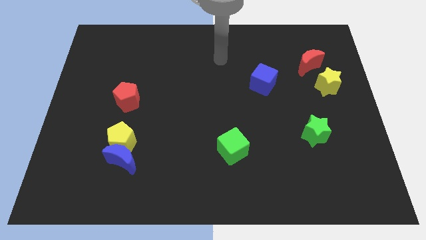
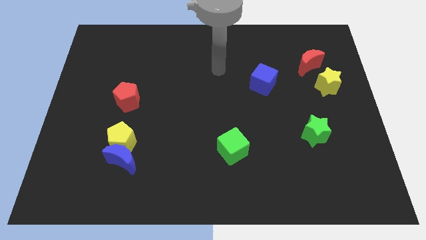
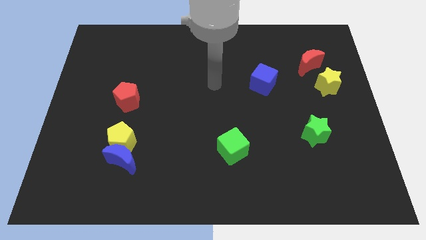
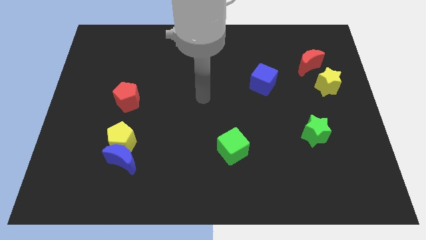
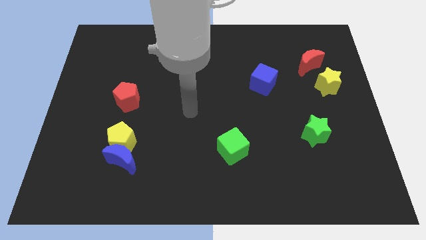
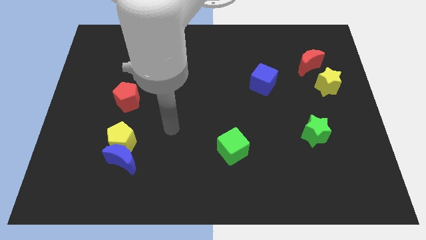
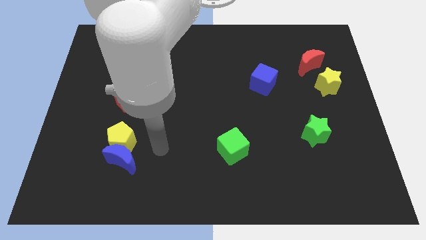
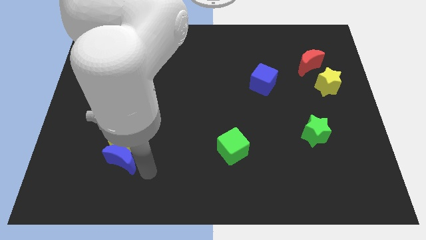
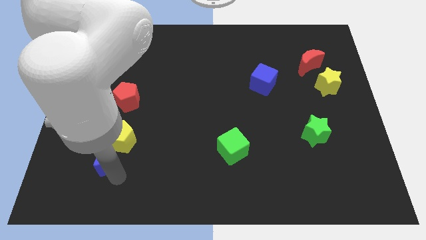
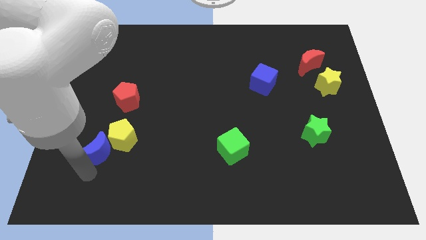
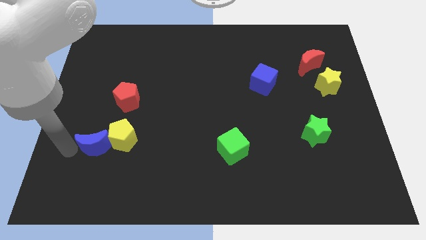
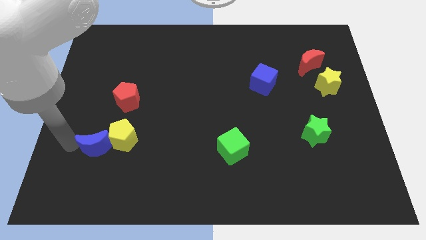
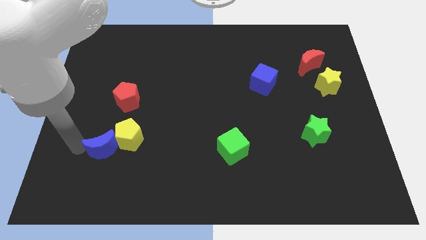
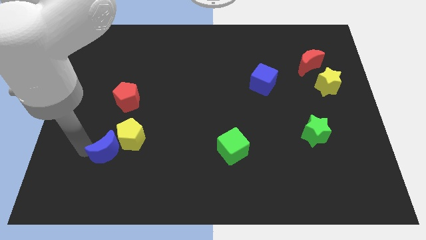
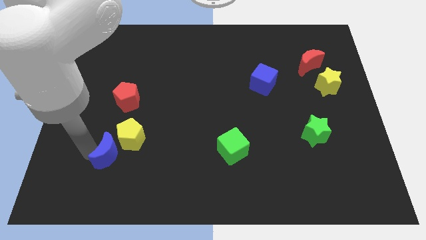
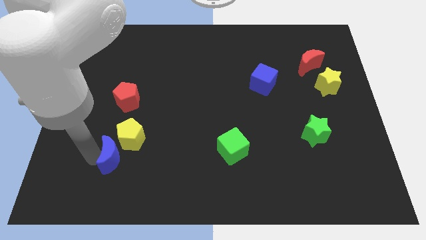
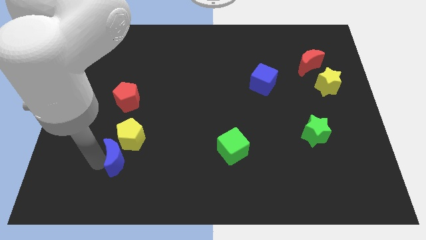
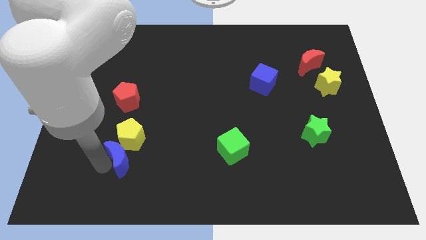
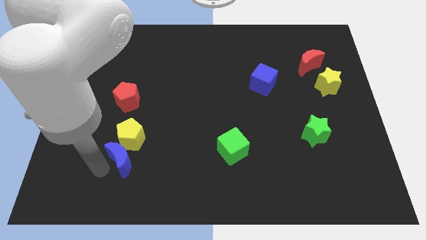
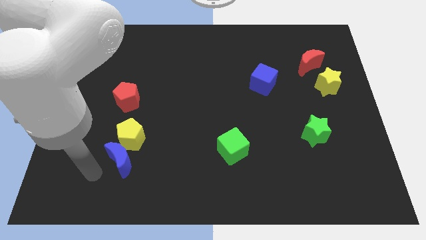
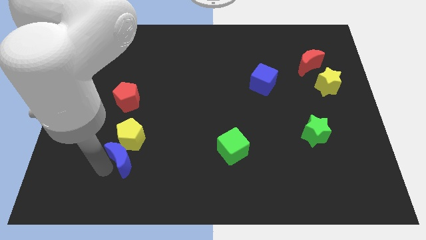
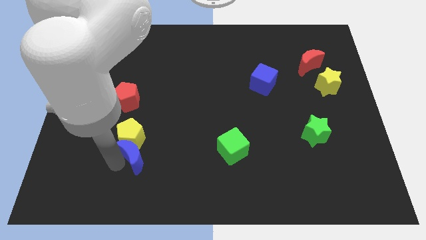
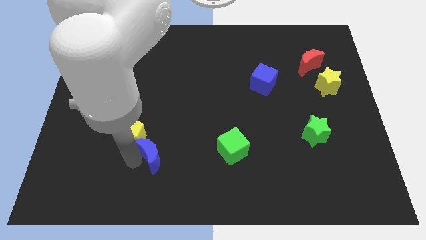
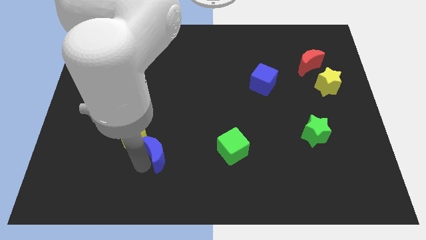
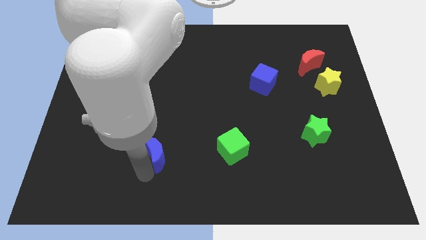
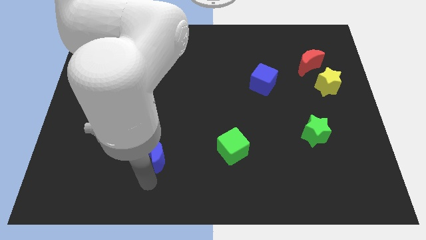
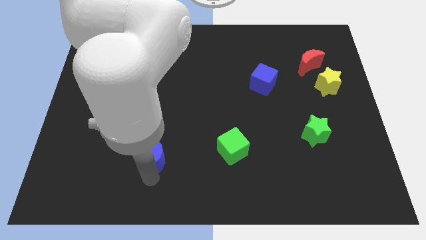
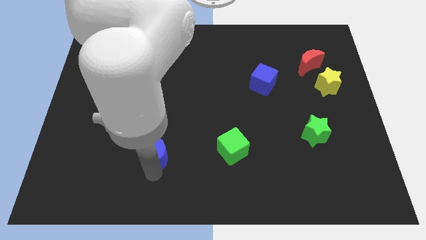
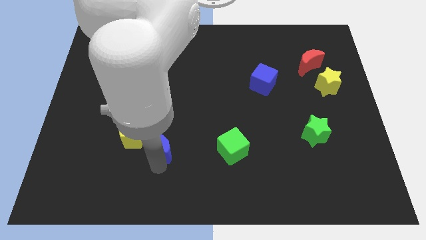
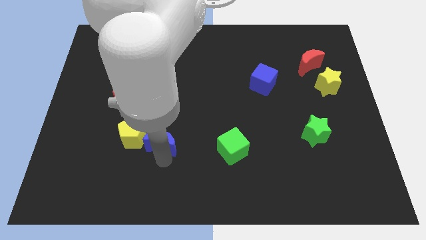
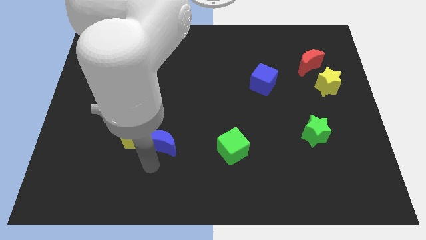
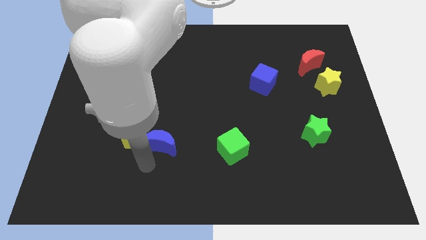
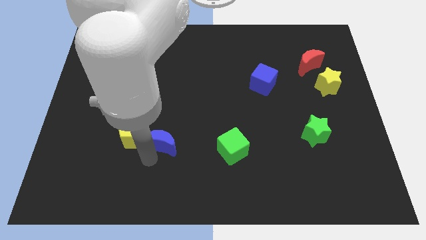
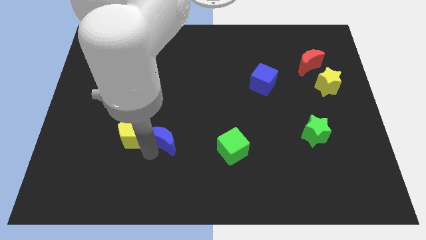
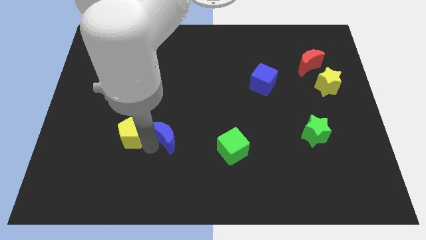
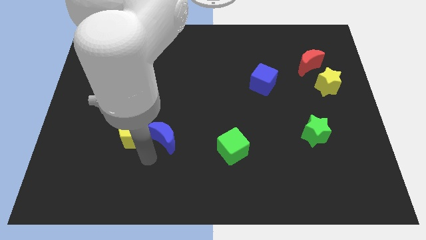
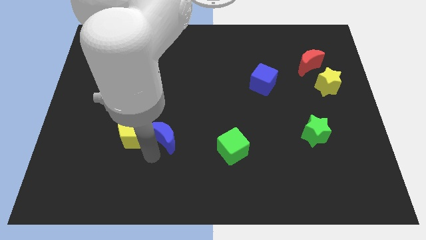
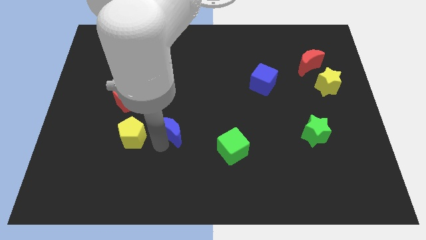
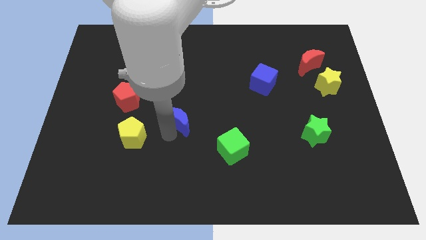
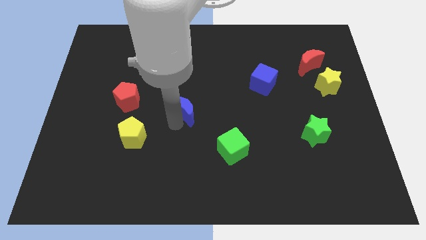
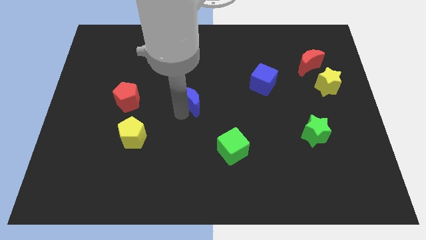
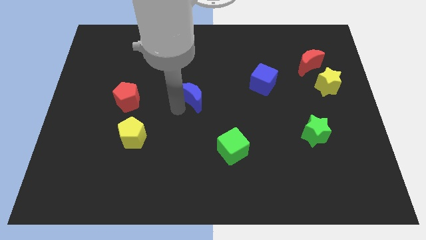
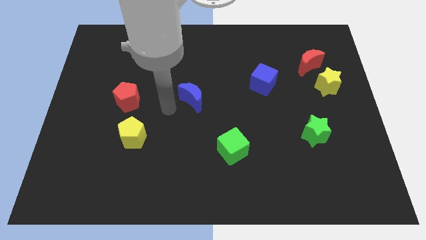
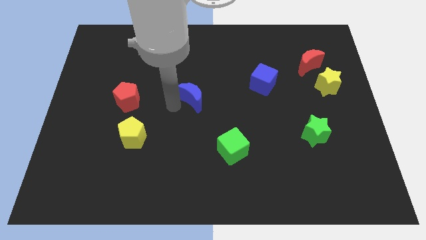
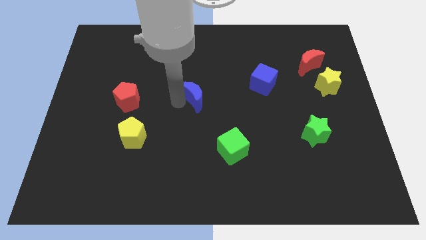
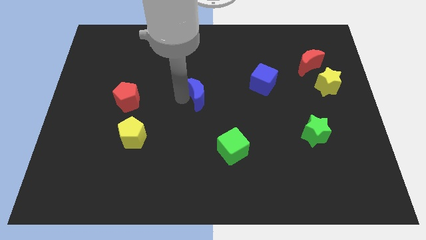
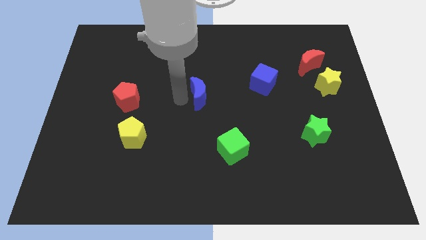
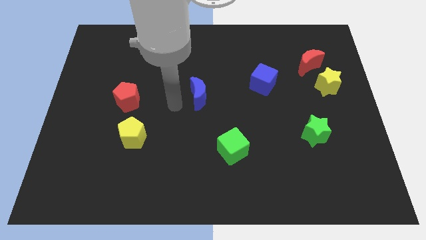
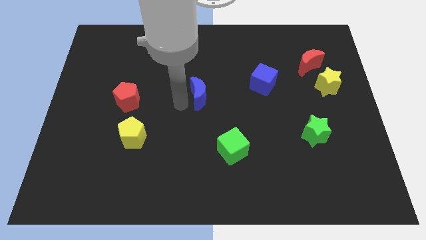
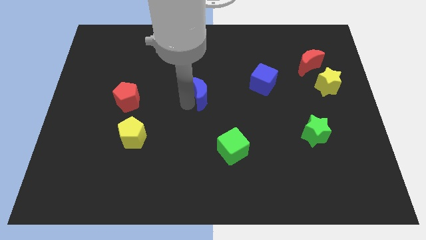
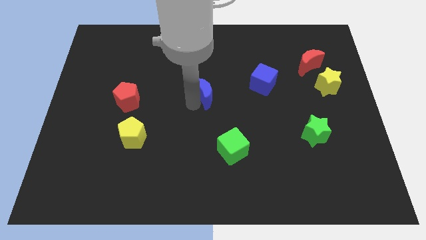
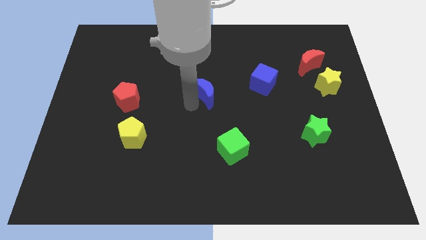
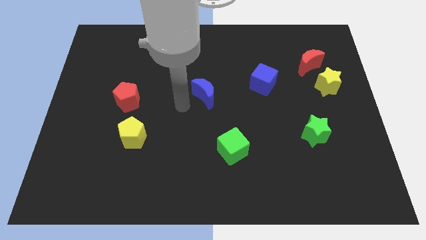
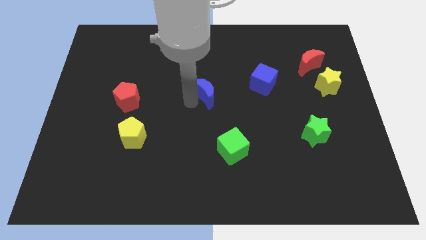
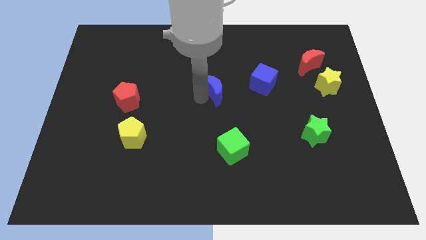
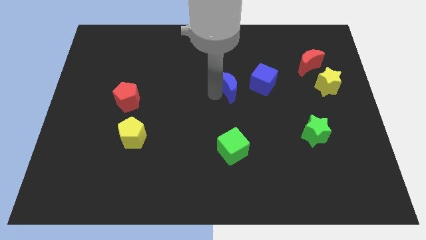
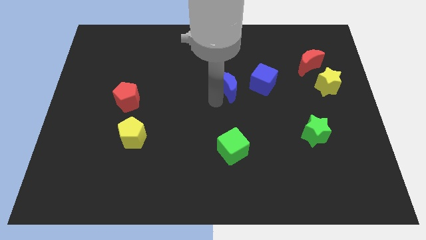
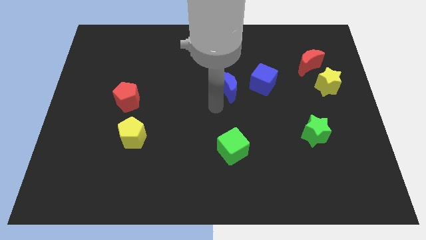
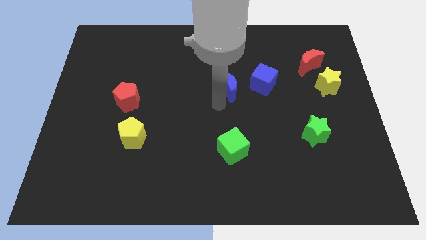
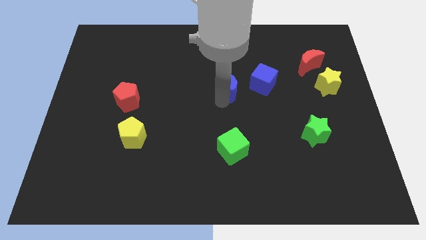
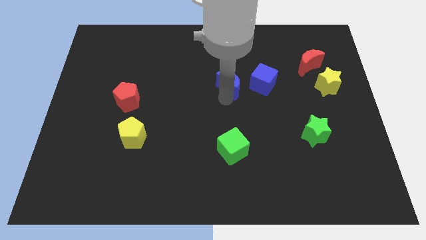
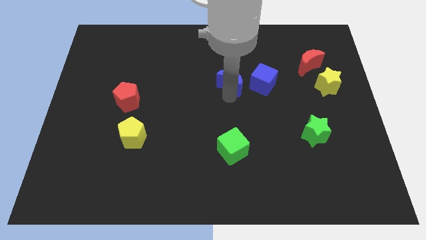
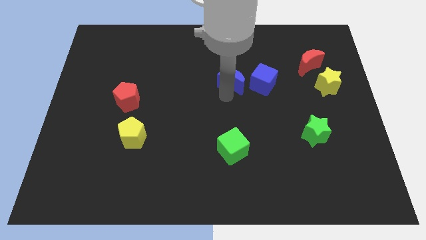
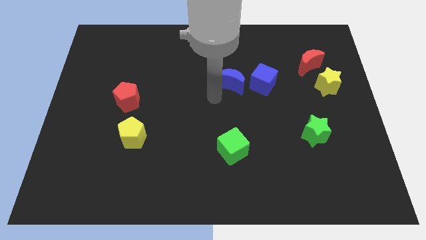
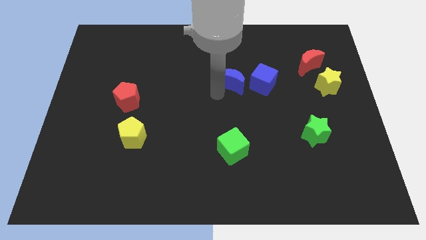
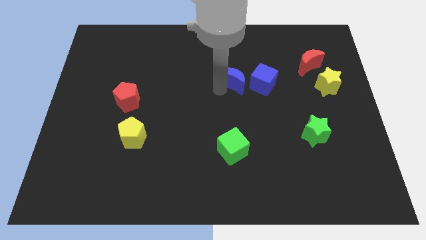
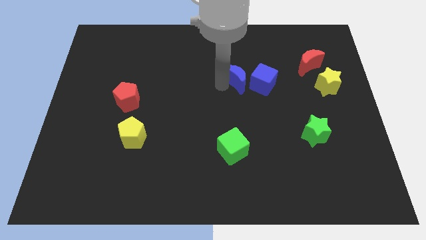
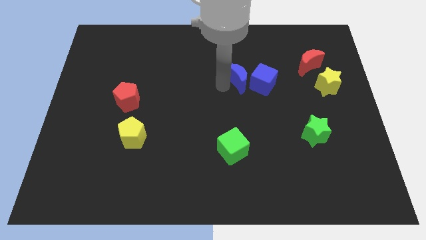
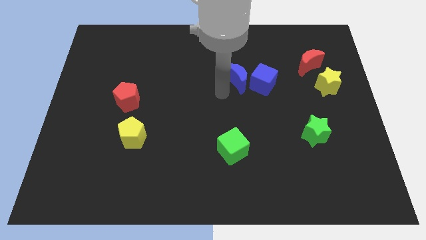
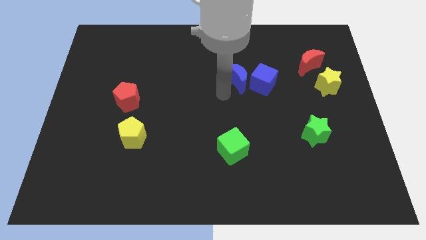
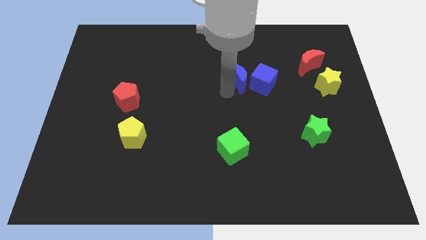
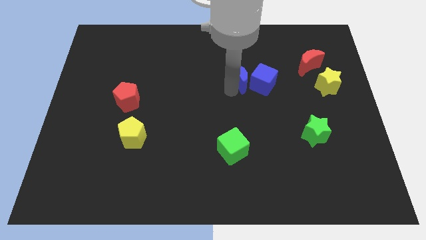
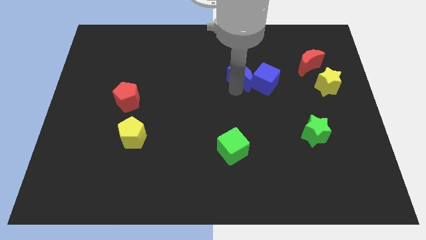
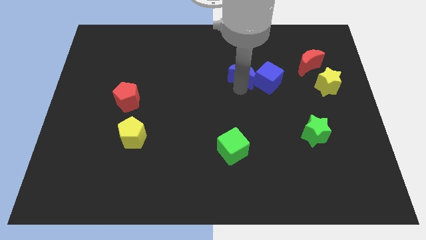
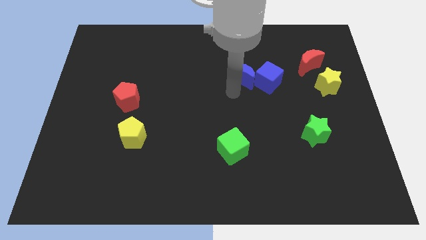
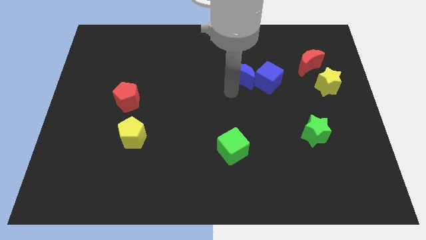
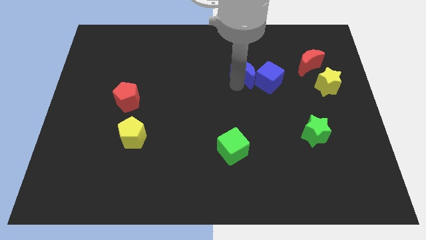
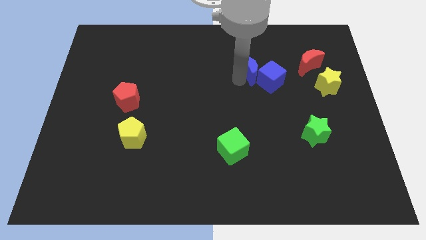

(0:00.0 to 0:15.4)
slide the blue moon to the left of the red moon
